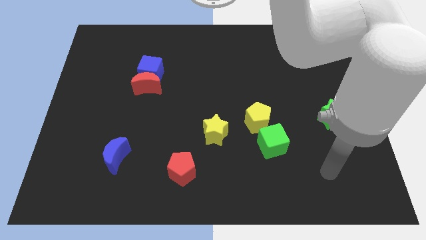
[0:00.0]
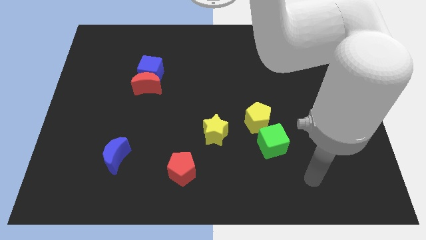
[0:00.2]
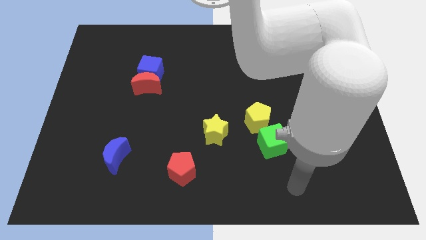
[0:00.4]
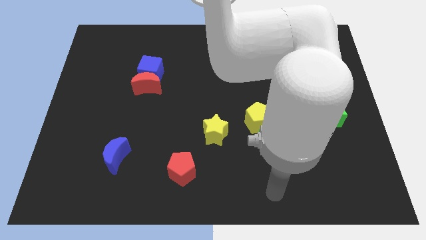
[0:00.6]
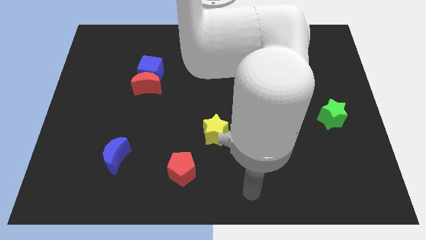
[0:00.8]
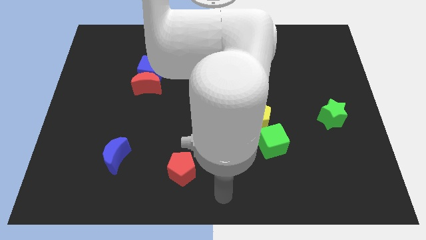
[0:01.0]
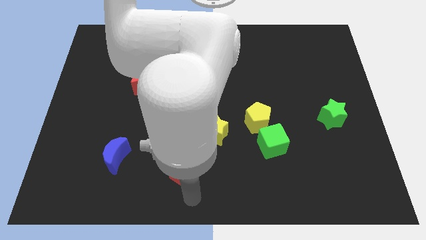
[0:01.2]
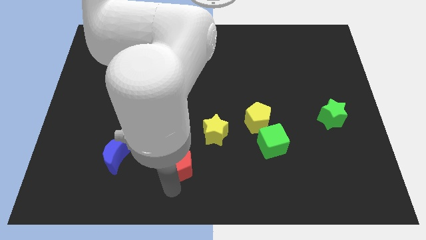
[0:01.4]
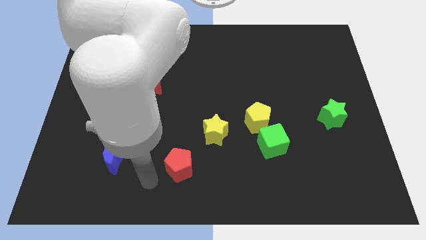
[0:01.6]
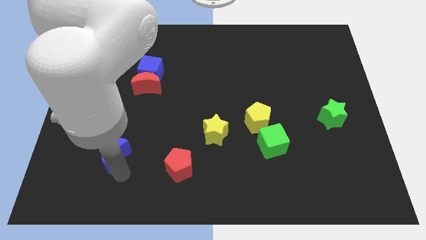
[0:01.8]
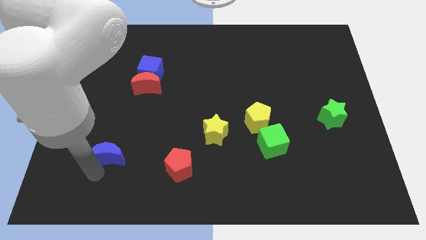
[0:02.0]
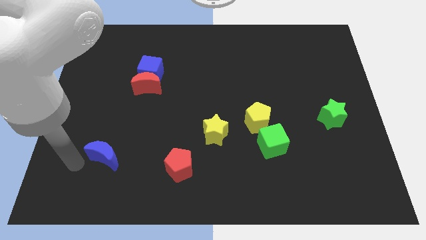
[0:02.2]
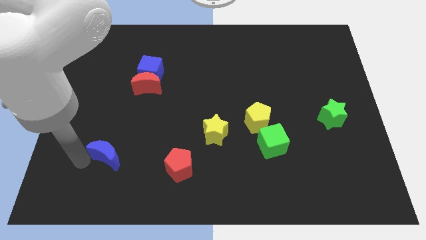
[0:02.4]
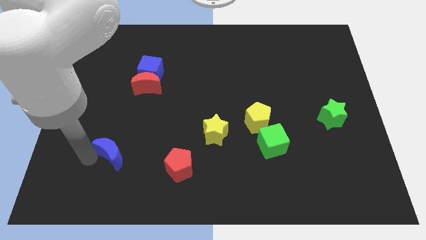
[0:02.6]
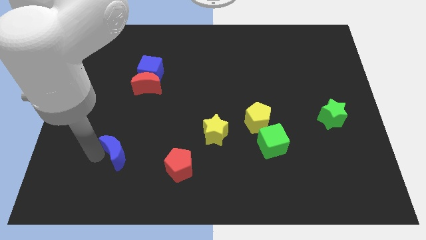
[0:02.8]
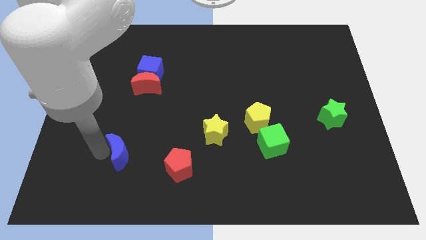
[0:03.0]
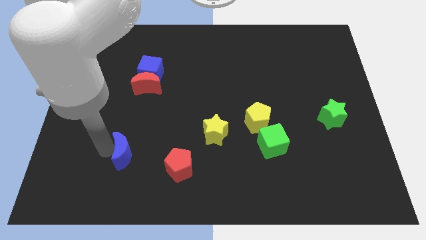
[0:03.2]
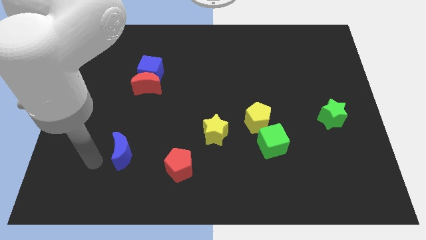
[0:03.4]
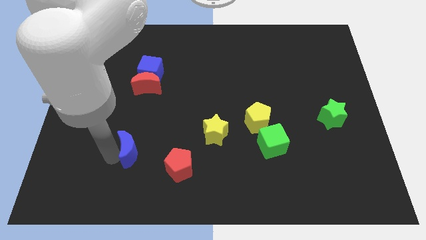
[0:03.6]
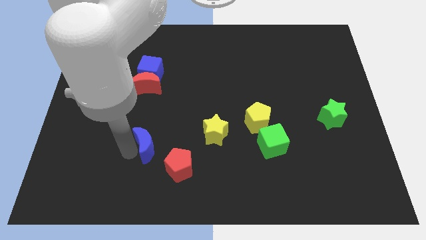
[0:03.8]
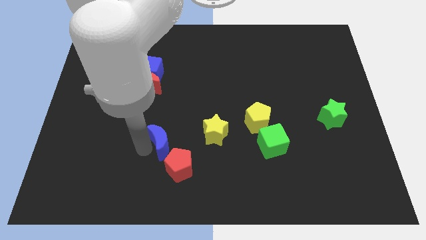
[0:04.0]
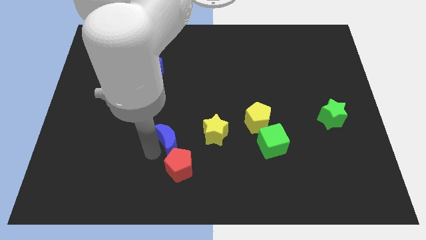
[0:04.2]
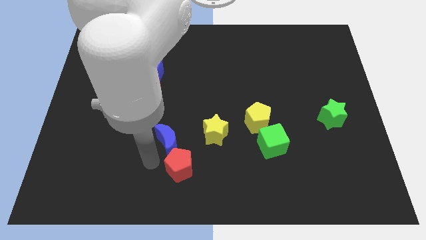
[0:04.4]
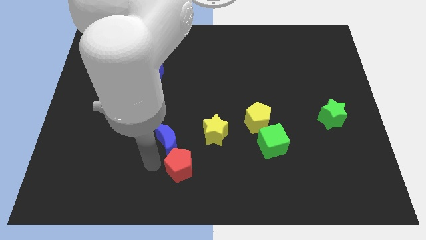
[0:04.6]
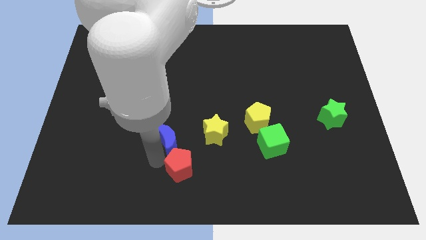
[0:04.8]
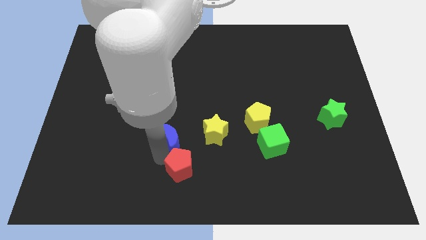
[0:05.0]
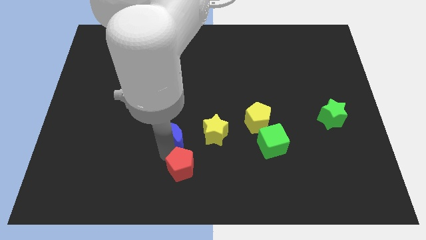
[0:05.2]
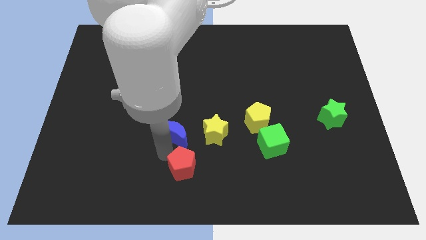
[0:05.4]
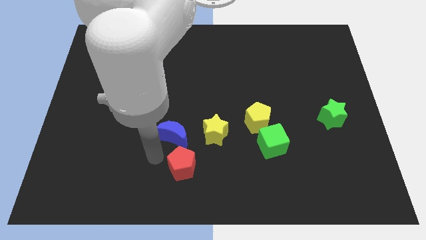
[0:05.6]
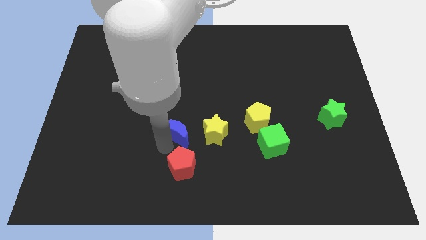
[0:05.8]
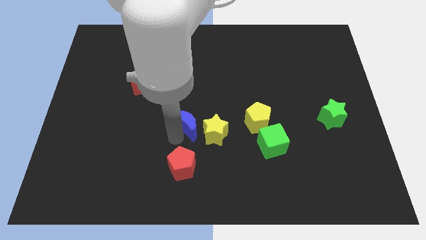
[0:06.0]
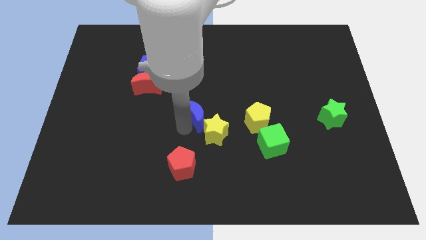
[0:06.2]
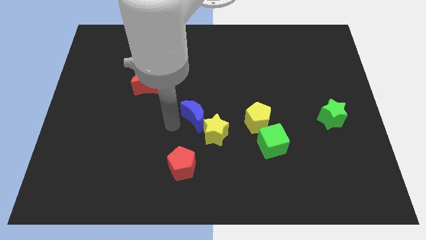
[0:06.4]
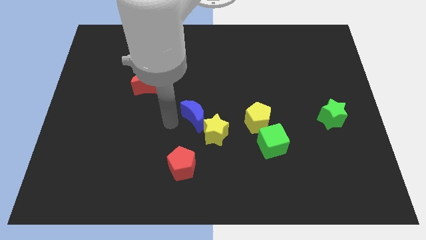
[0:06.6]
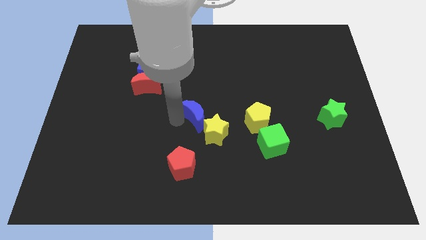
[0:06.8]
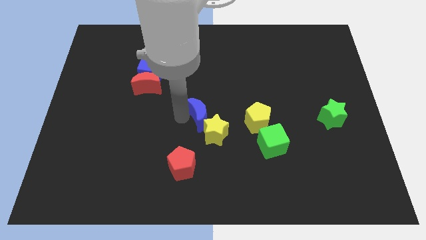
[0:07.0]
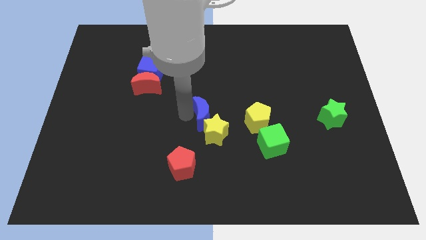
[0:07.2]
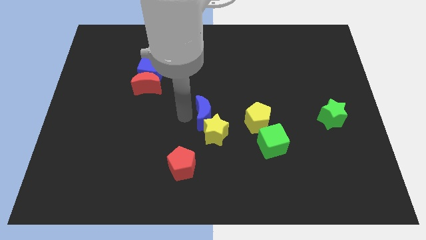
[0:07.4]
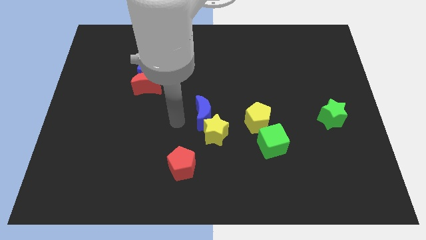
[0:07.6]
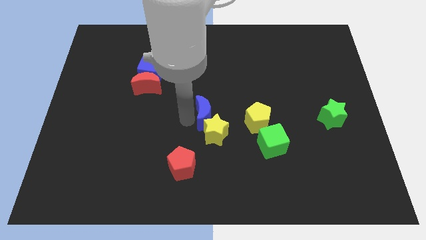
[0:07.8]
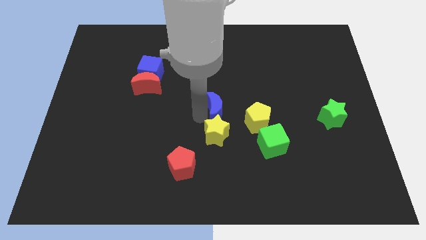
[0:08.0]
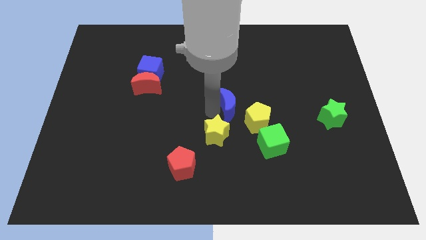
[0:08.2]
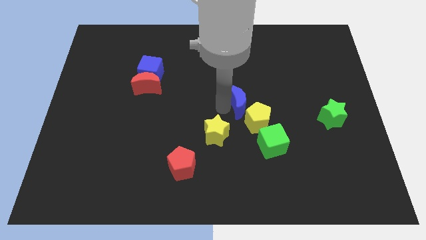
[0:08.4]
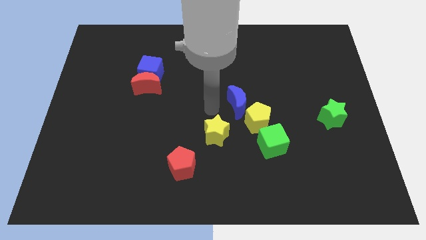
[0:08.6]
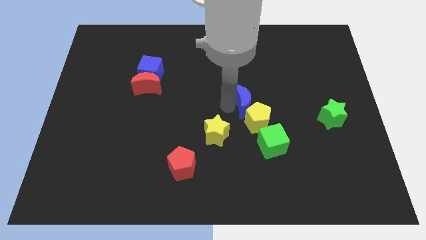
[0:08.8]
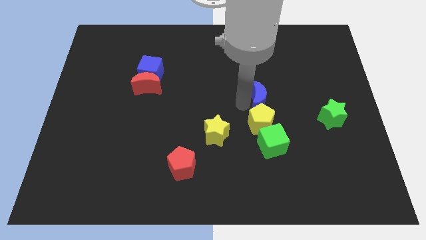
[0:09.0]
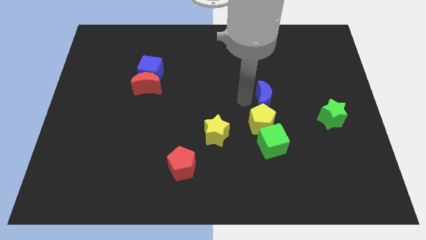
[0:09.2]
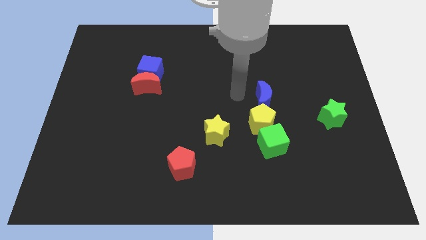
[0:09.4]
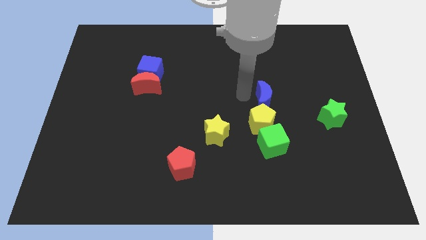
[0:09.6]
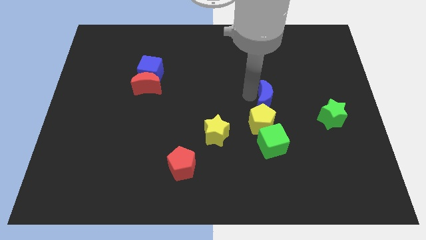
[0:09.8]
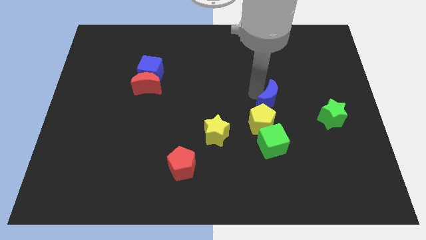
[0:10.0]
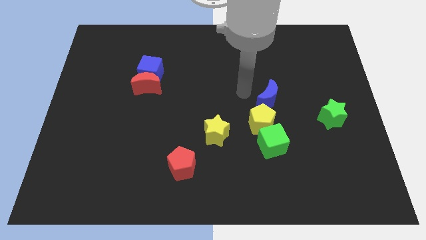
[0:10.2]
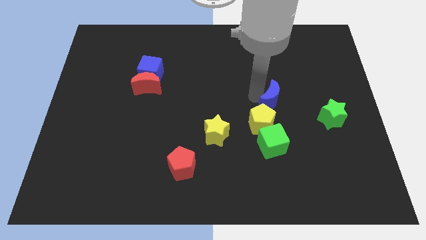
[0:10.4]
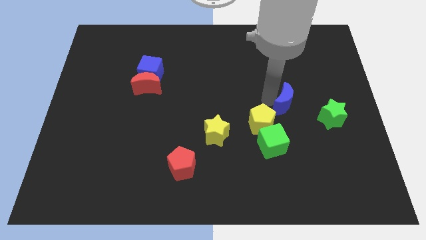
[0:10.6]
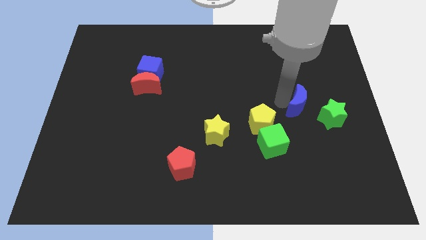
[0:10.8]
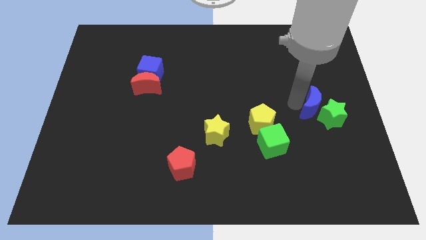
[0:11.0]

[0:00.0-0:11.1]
put the blue moon towards the green star

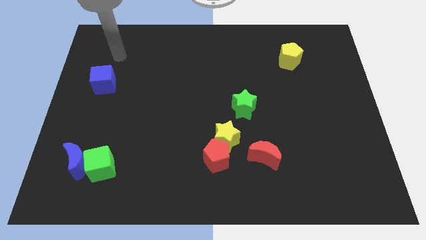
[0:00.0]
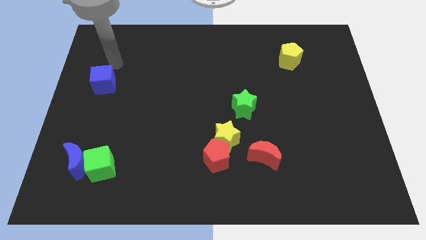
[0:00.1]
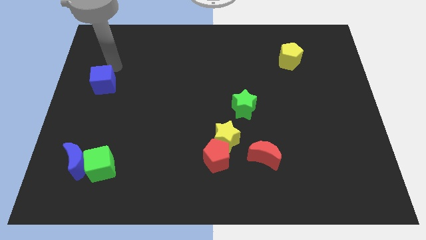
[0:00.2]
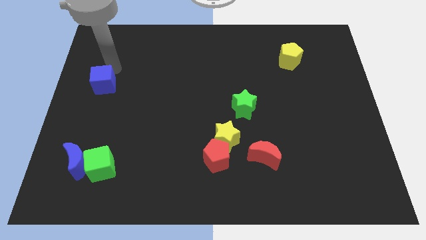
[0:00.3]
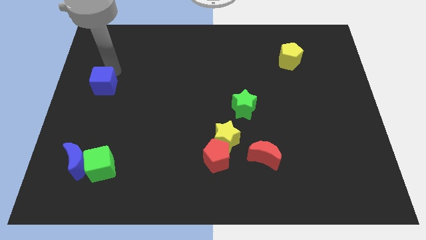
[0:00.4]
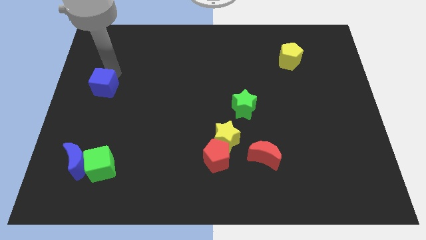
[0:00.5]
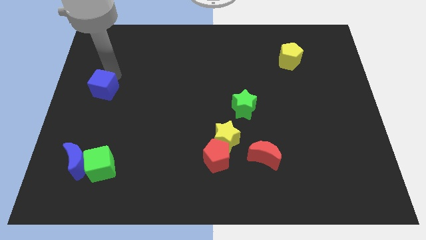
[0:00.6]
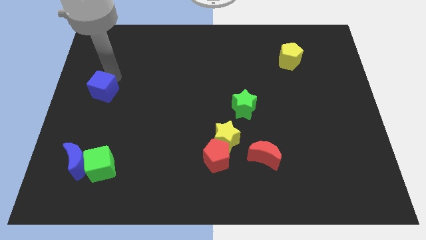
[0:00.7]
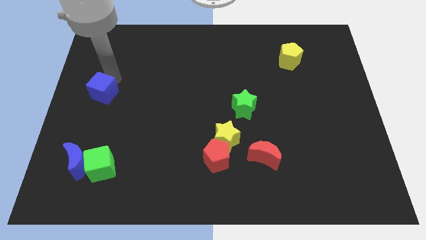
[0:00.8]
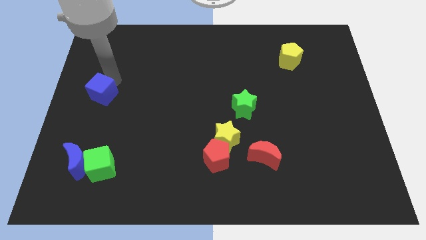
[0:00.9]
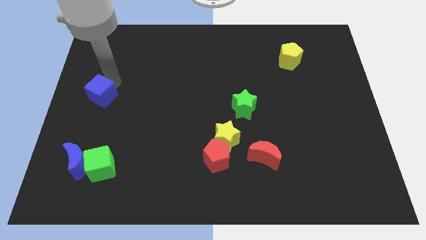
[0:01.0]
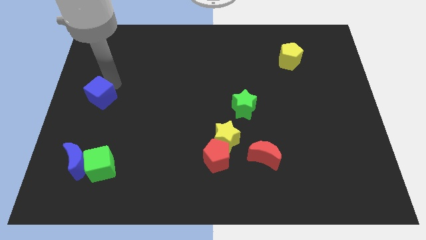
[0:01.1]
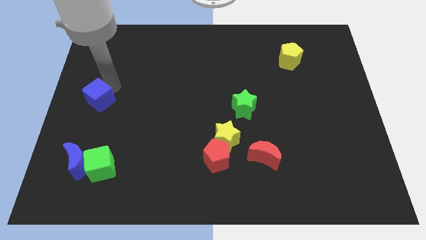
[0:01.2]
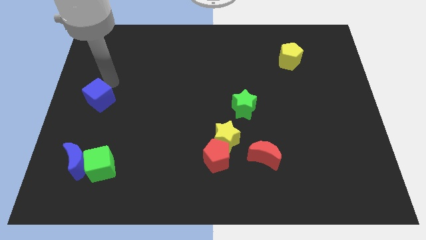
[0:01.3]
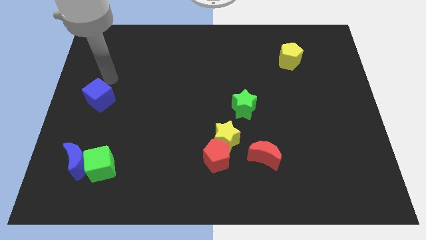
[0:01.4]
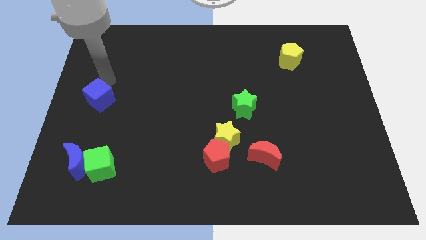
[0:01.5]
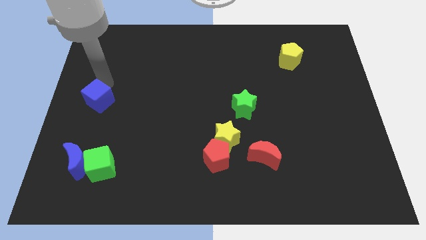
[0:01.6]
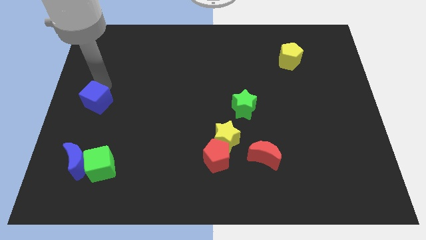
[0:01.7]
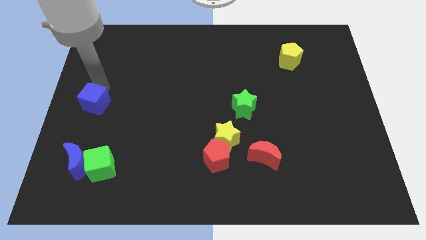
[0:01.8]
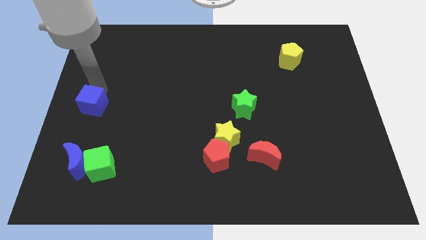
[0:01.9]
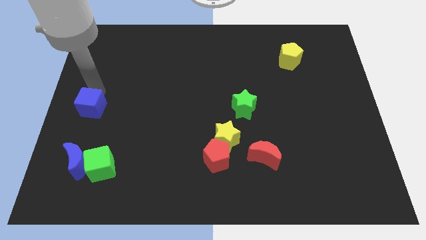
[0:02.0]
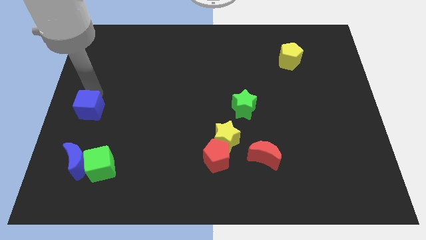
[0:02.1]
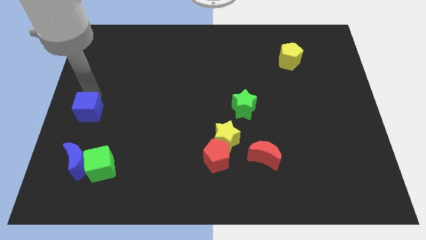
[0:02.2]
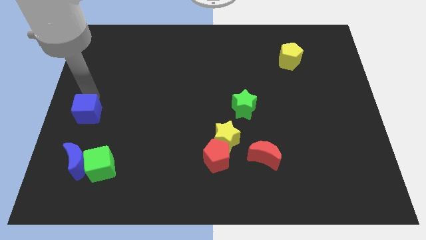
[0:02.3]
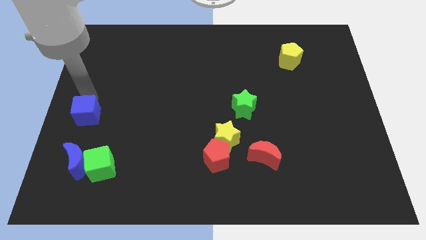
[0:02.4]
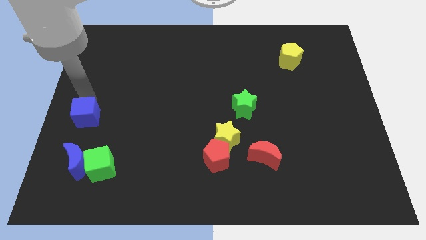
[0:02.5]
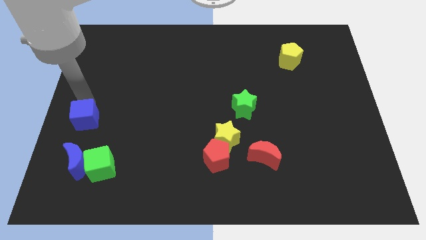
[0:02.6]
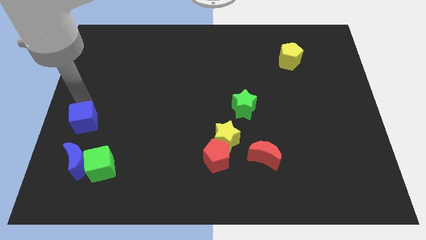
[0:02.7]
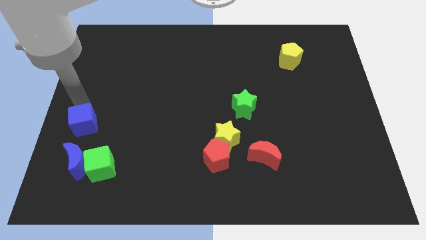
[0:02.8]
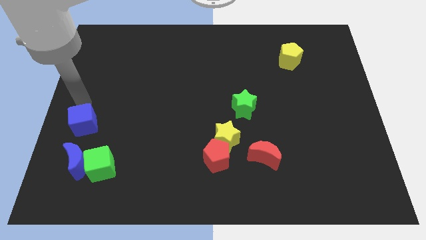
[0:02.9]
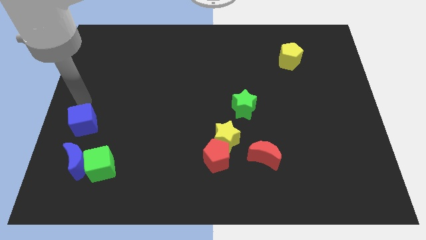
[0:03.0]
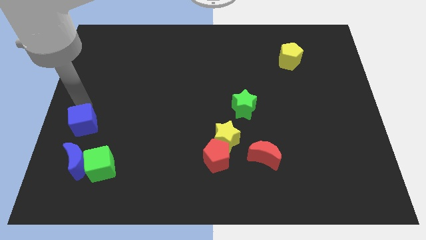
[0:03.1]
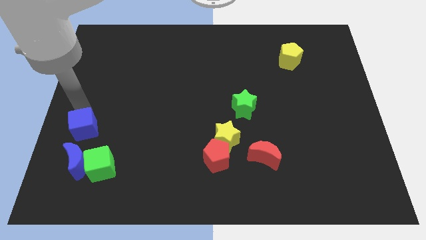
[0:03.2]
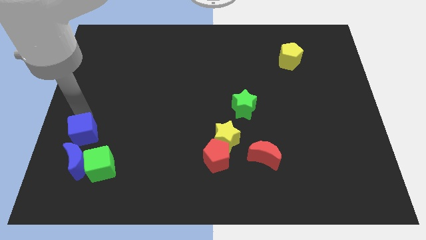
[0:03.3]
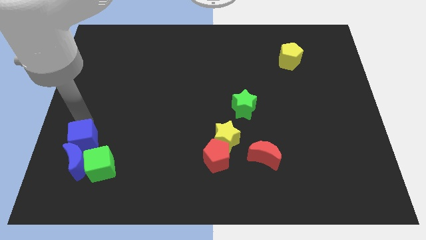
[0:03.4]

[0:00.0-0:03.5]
put the blue cube next to the blue moon
